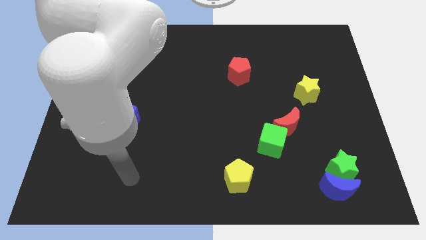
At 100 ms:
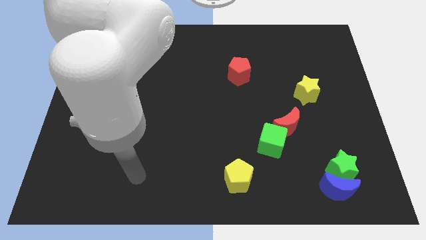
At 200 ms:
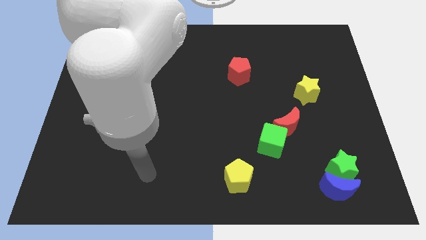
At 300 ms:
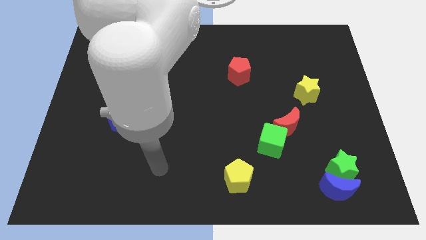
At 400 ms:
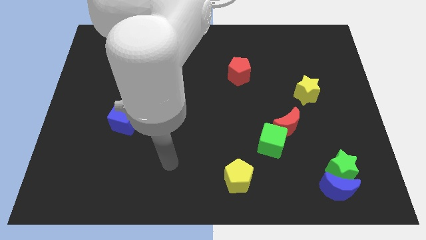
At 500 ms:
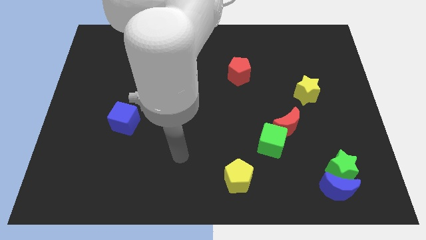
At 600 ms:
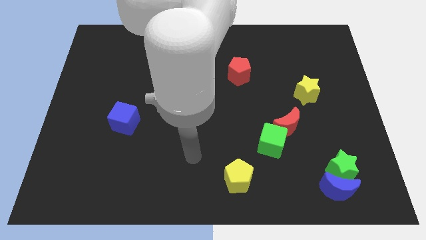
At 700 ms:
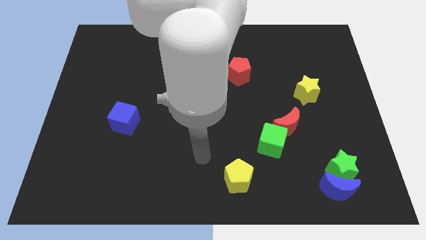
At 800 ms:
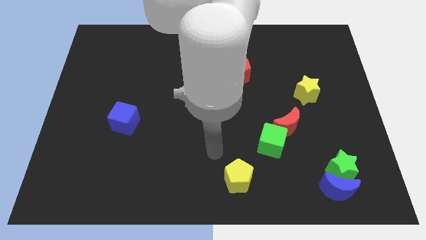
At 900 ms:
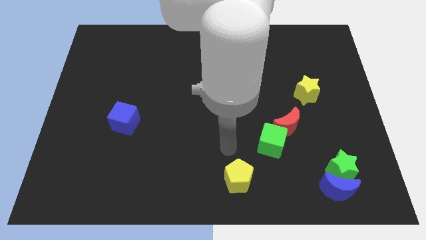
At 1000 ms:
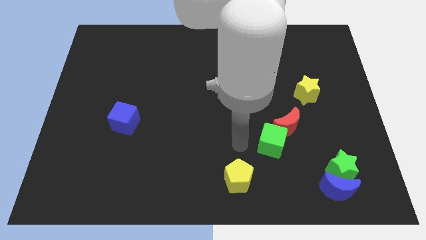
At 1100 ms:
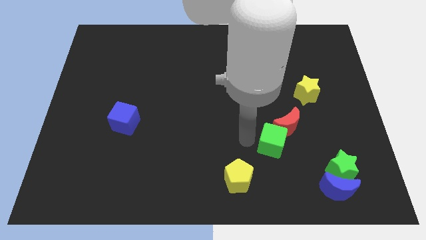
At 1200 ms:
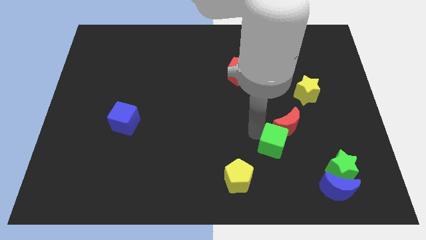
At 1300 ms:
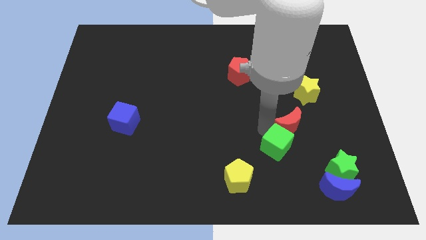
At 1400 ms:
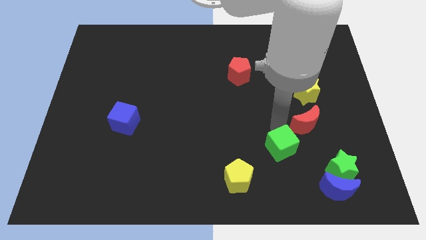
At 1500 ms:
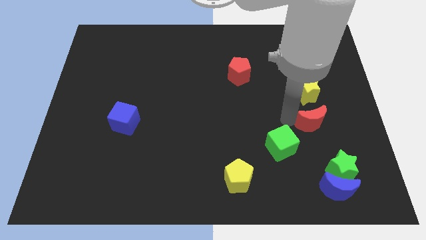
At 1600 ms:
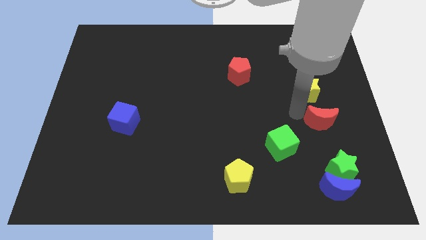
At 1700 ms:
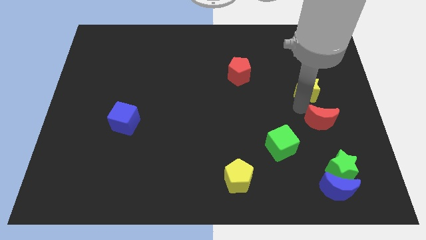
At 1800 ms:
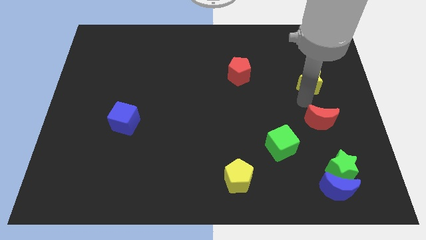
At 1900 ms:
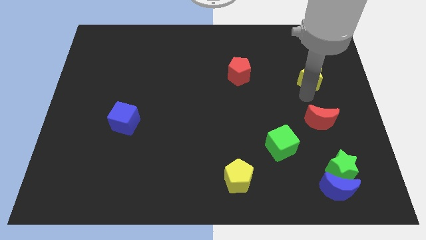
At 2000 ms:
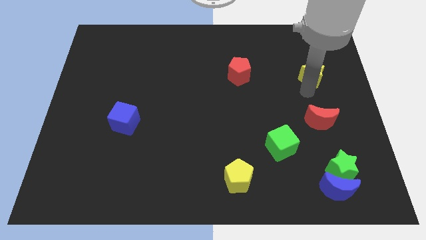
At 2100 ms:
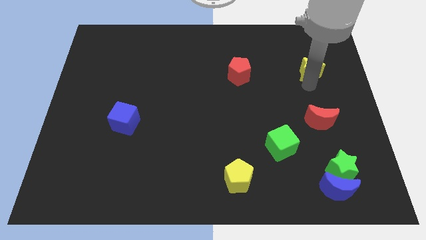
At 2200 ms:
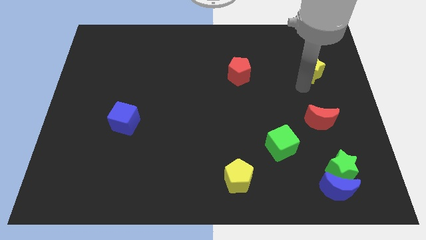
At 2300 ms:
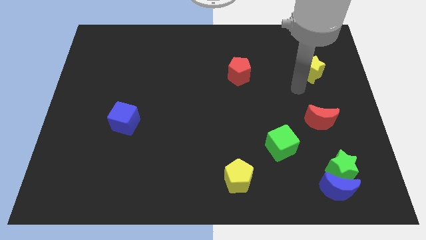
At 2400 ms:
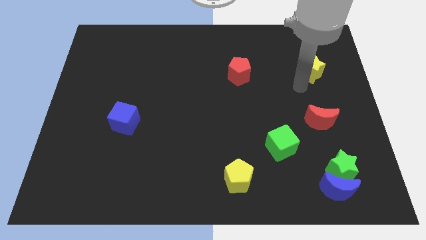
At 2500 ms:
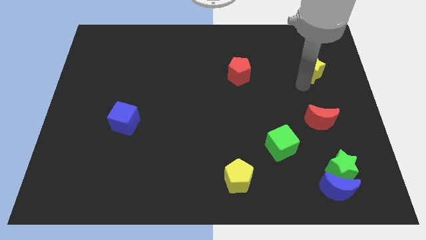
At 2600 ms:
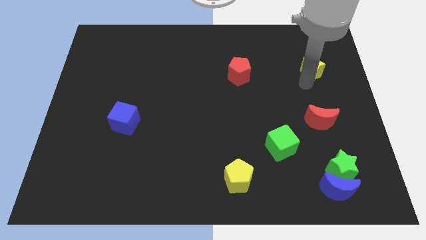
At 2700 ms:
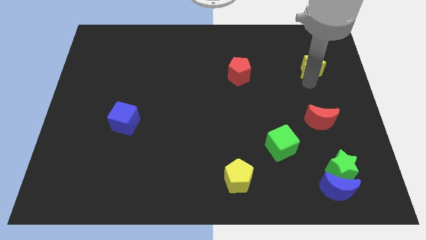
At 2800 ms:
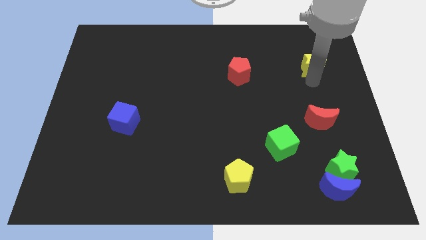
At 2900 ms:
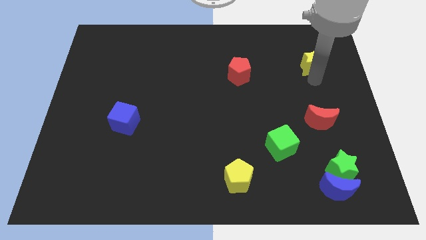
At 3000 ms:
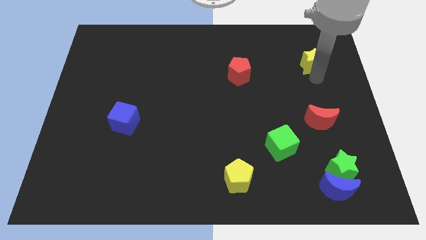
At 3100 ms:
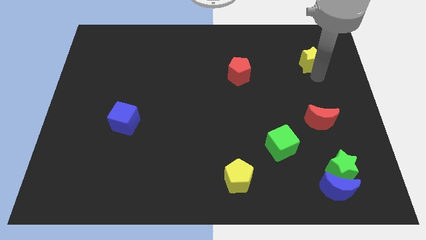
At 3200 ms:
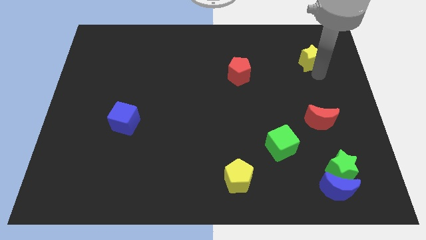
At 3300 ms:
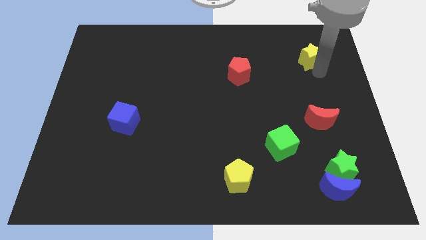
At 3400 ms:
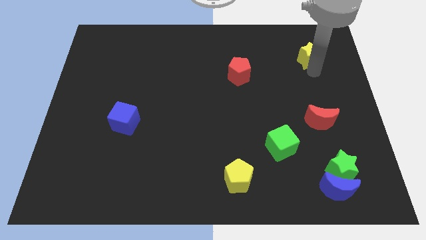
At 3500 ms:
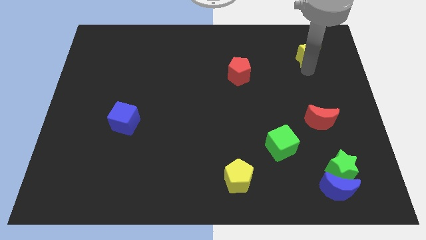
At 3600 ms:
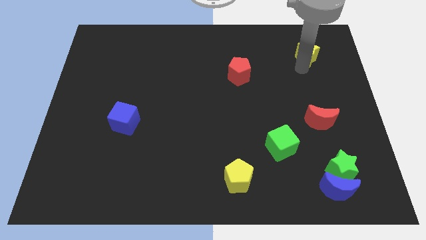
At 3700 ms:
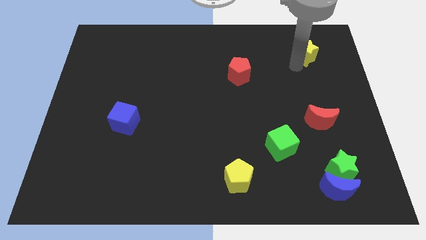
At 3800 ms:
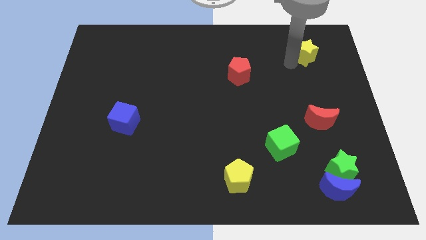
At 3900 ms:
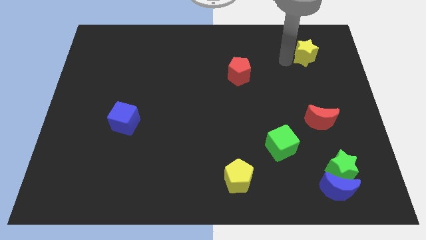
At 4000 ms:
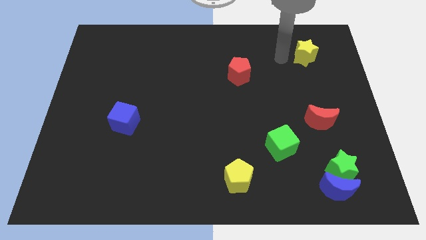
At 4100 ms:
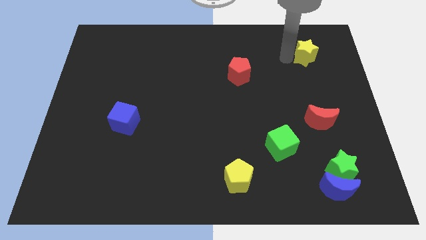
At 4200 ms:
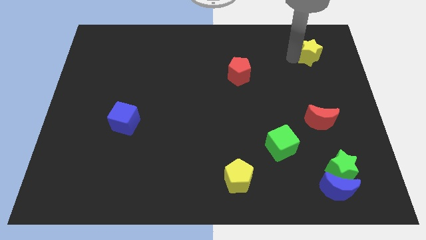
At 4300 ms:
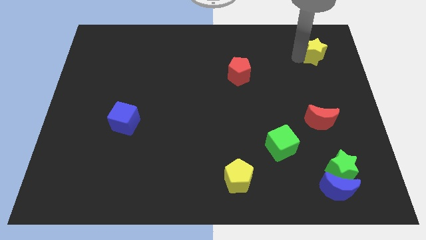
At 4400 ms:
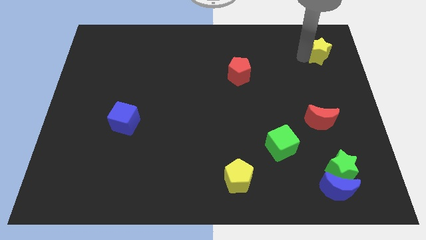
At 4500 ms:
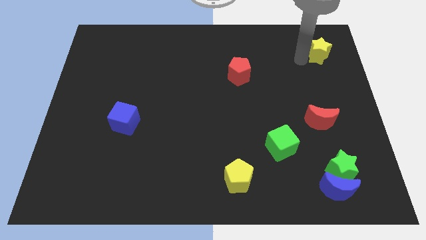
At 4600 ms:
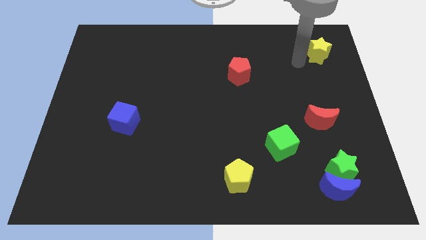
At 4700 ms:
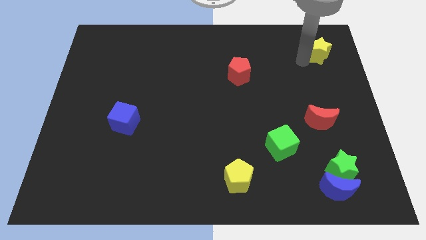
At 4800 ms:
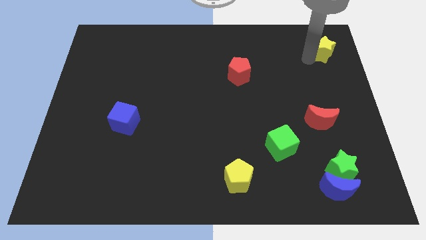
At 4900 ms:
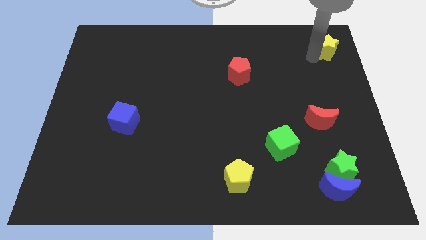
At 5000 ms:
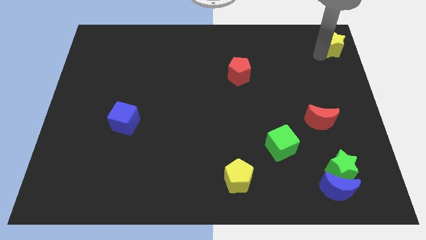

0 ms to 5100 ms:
put the yellow star to the top right of the board

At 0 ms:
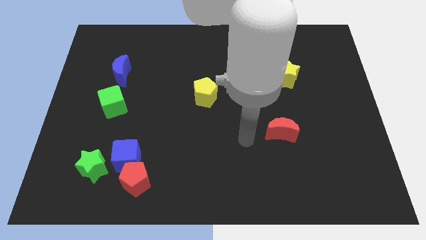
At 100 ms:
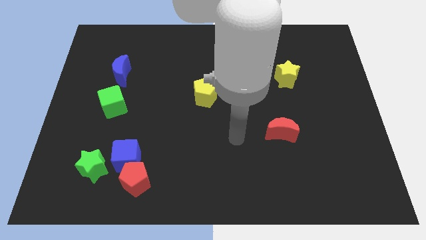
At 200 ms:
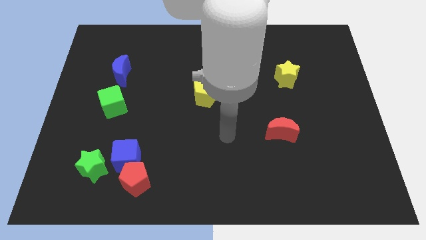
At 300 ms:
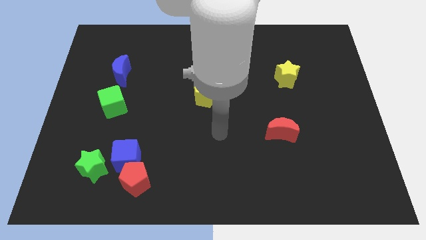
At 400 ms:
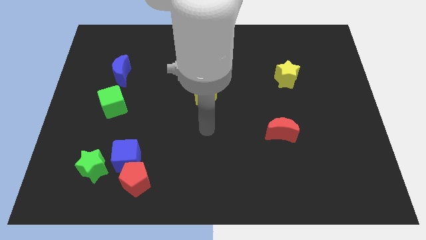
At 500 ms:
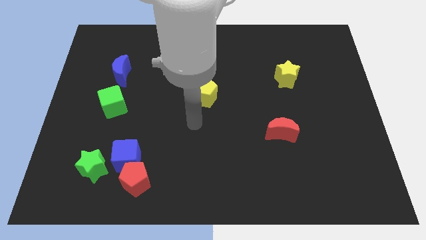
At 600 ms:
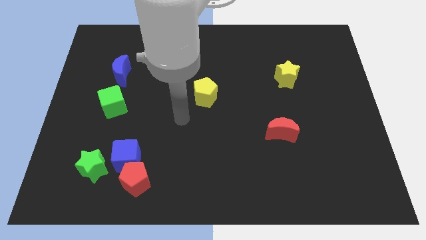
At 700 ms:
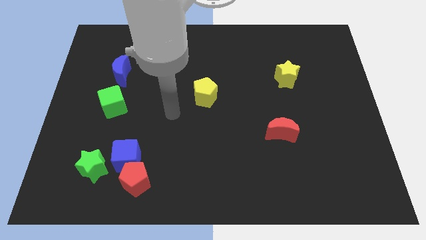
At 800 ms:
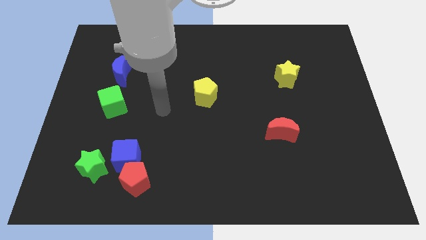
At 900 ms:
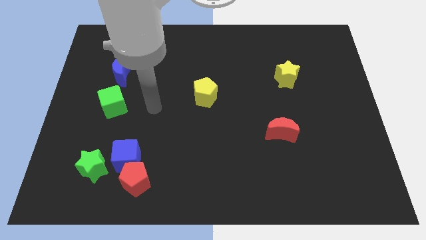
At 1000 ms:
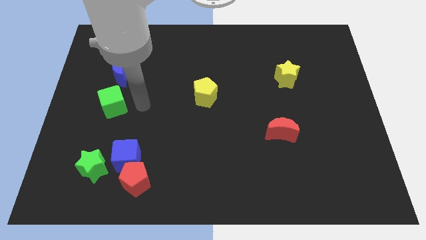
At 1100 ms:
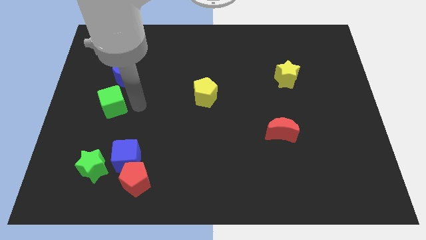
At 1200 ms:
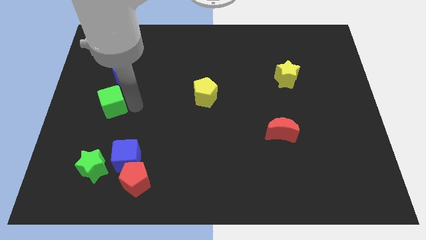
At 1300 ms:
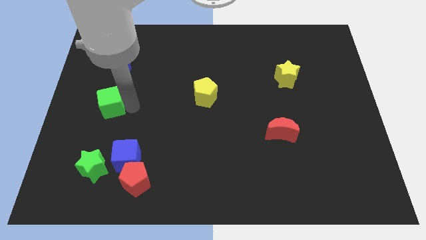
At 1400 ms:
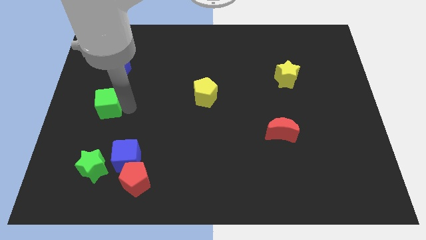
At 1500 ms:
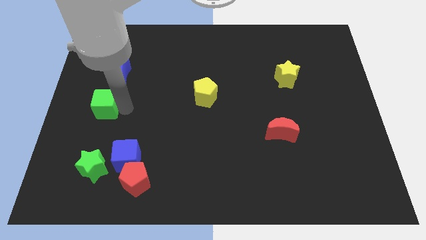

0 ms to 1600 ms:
put the green cube to the left side of the board
